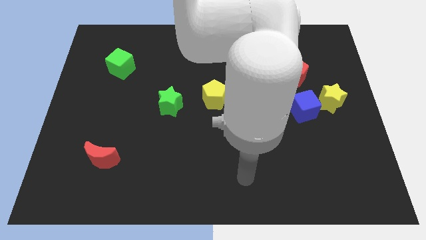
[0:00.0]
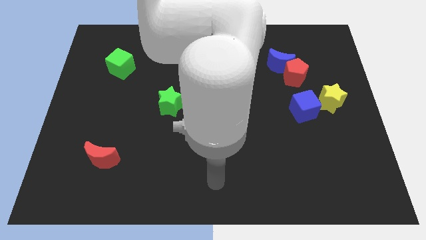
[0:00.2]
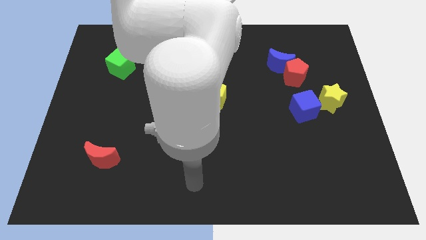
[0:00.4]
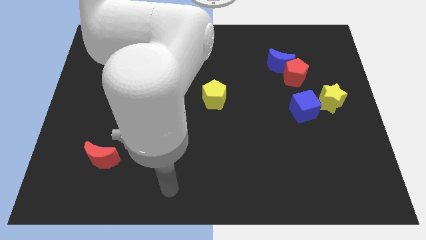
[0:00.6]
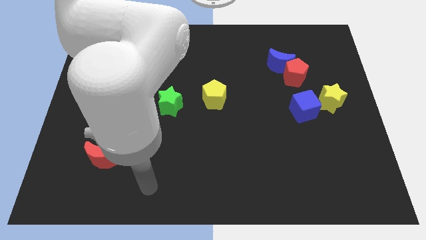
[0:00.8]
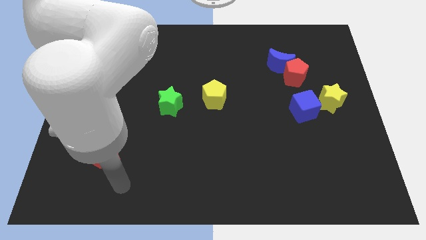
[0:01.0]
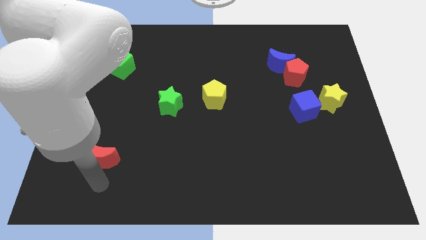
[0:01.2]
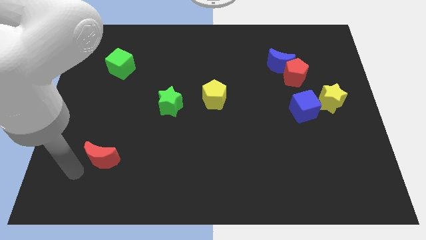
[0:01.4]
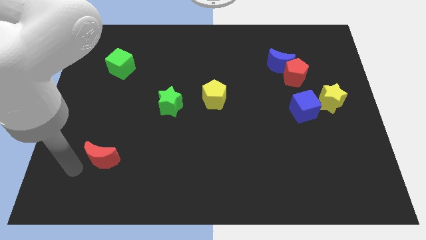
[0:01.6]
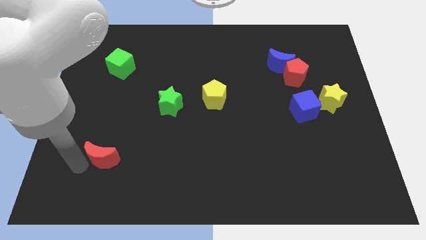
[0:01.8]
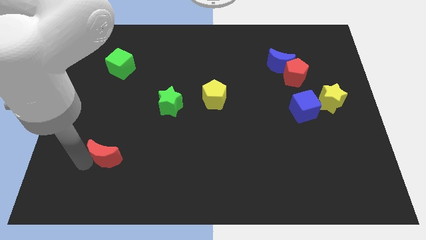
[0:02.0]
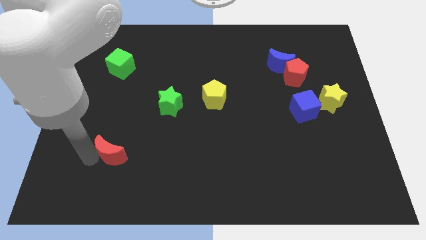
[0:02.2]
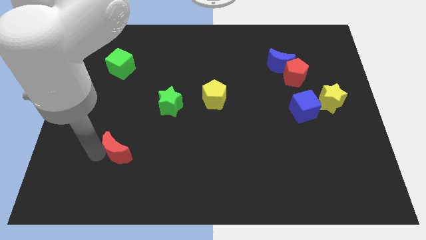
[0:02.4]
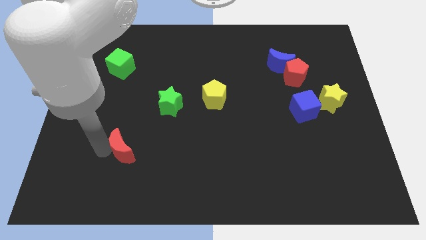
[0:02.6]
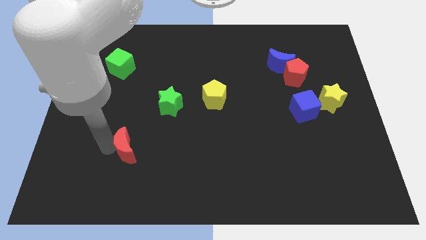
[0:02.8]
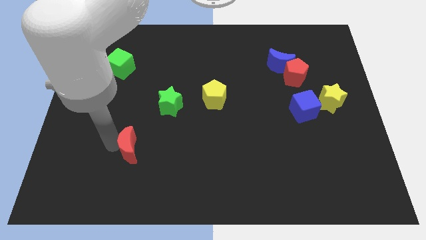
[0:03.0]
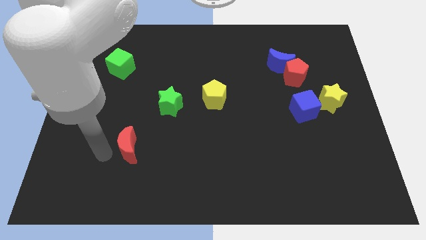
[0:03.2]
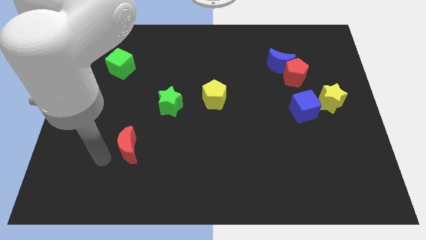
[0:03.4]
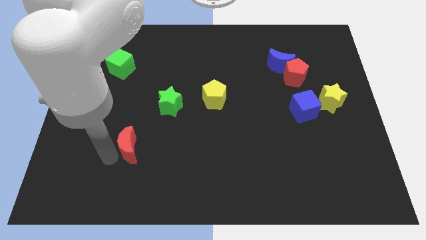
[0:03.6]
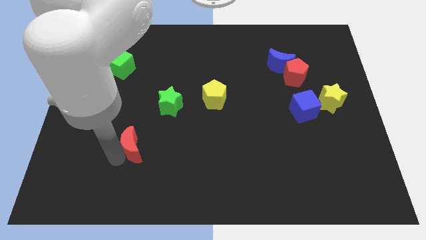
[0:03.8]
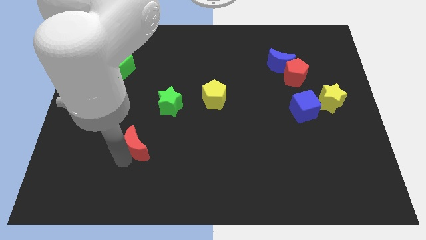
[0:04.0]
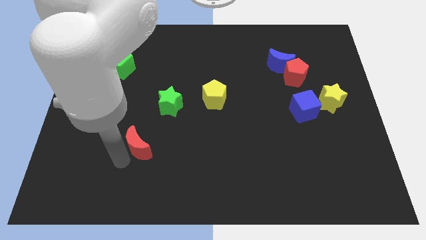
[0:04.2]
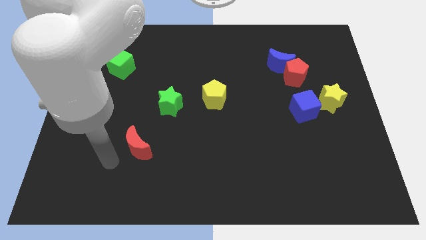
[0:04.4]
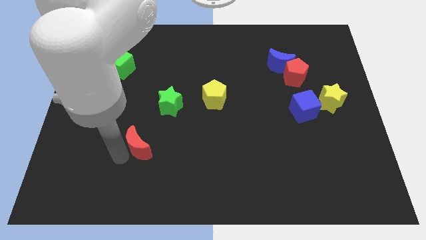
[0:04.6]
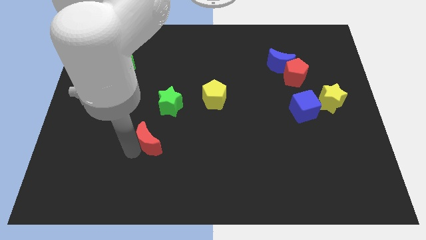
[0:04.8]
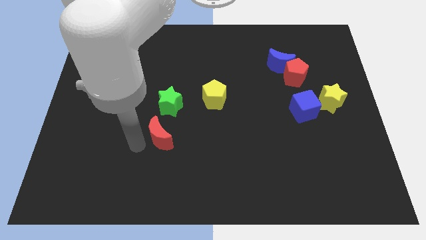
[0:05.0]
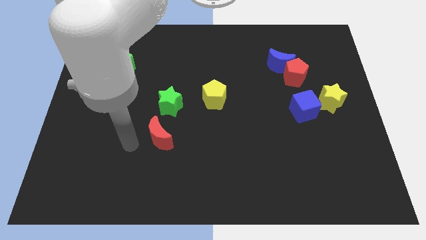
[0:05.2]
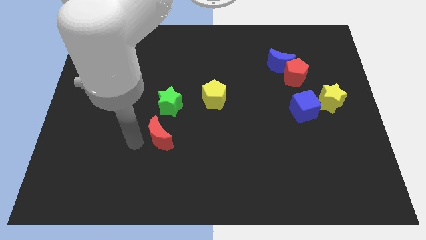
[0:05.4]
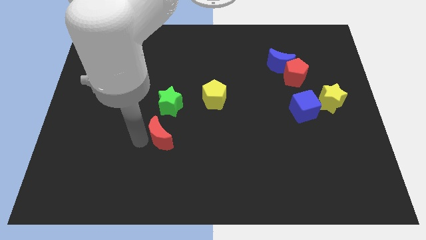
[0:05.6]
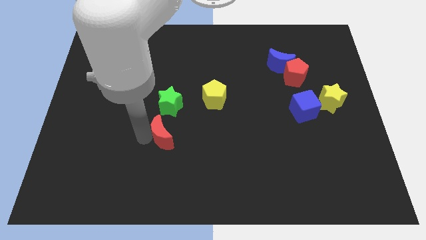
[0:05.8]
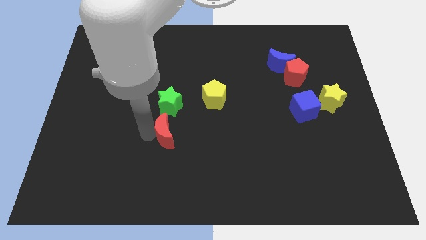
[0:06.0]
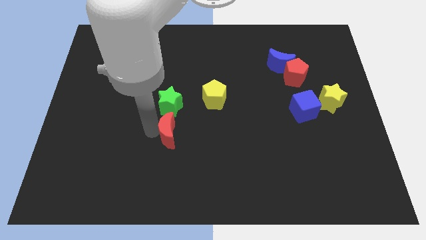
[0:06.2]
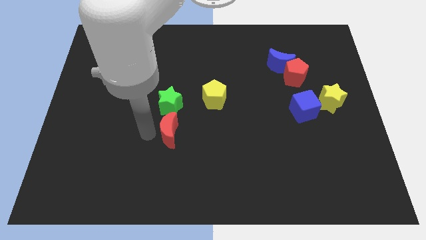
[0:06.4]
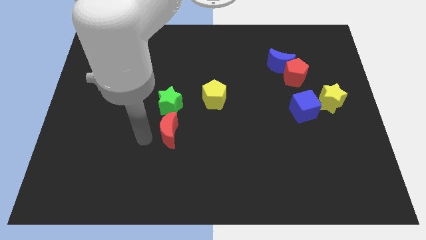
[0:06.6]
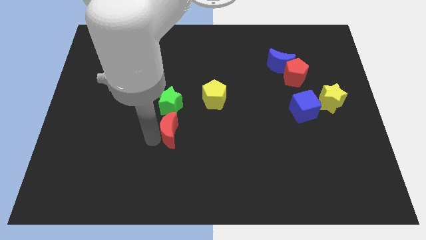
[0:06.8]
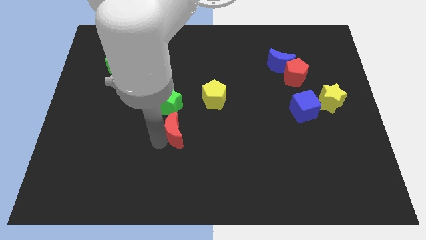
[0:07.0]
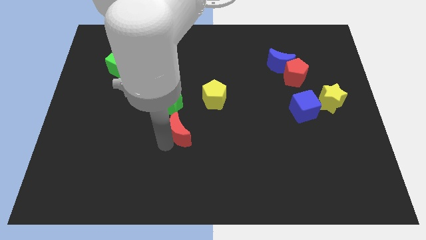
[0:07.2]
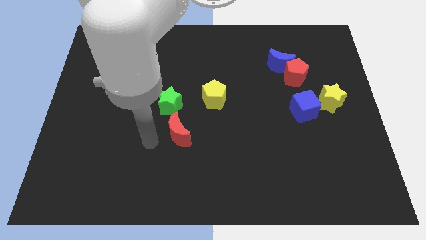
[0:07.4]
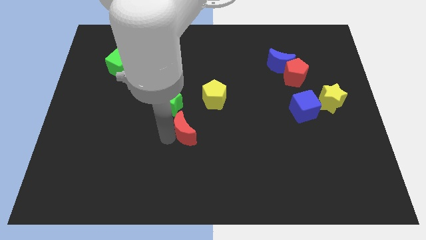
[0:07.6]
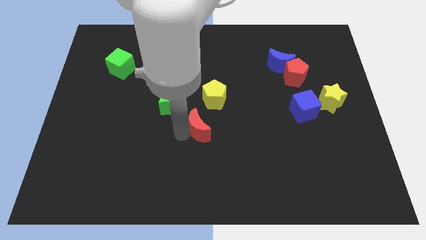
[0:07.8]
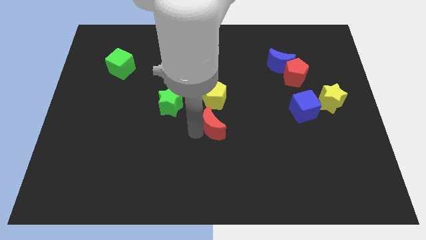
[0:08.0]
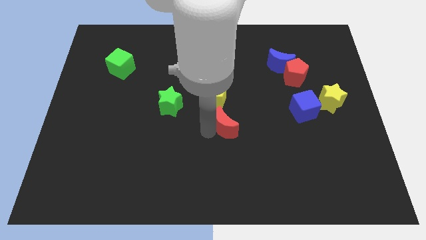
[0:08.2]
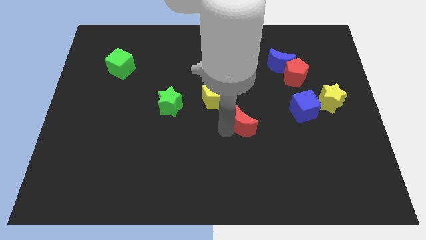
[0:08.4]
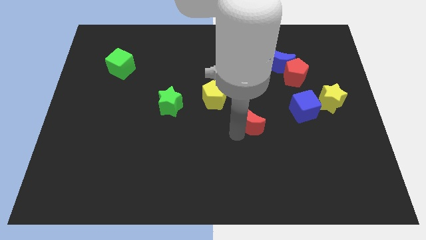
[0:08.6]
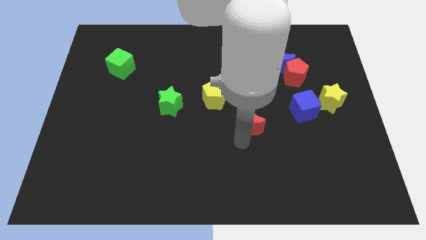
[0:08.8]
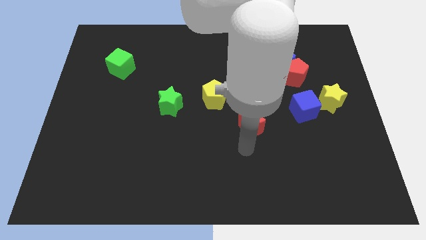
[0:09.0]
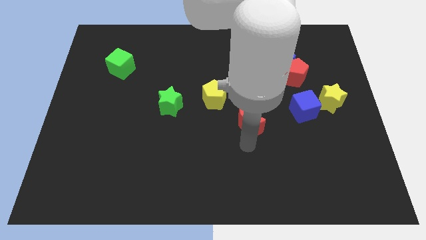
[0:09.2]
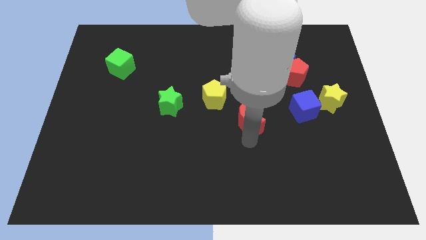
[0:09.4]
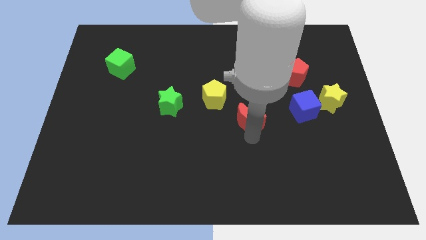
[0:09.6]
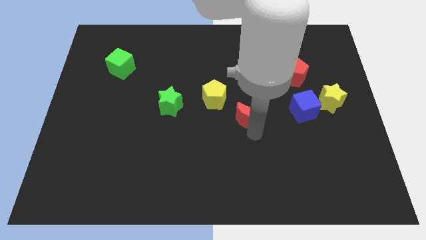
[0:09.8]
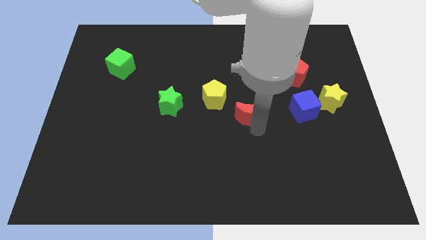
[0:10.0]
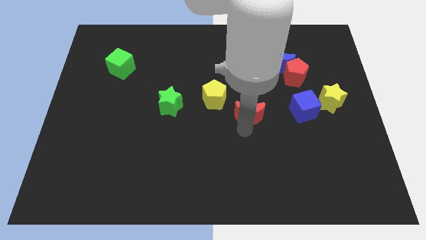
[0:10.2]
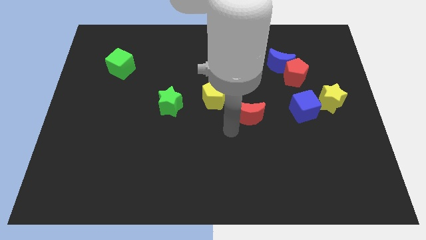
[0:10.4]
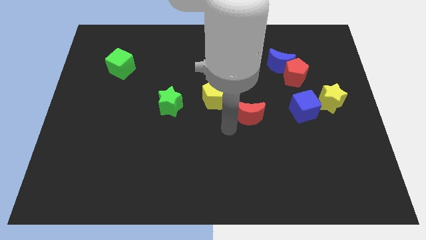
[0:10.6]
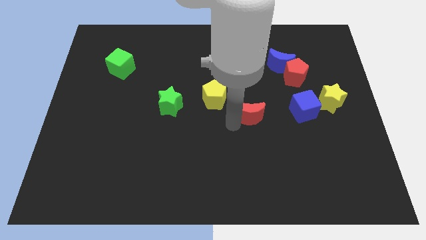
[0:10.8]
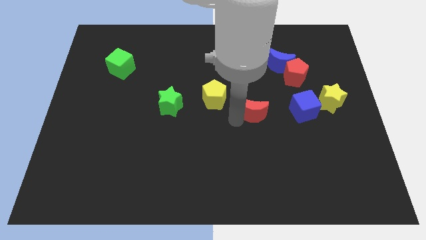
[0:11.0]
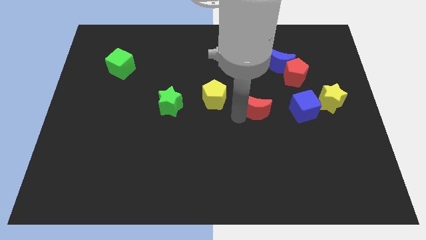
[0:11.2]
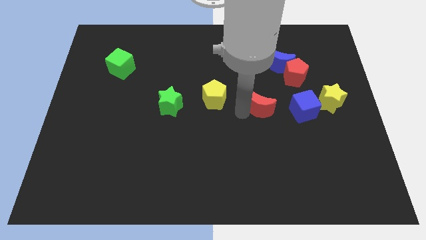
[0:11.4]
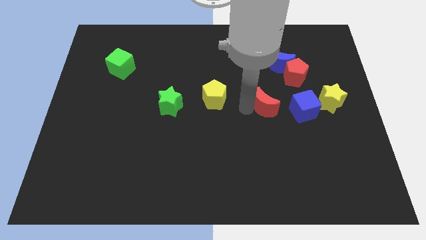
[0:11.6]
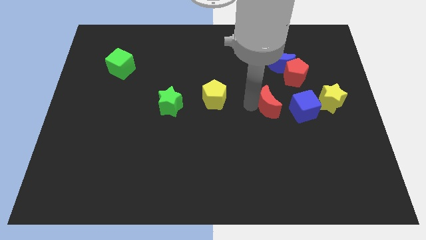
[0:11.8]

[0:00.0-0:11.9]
move the red moon to the bottom side of the blue moon
